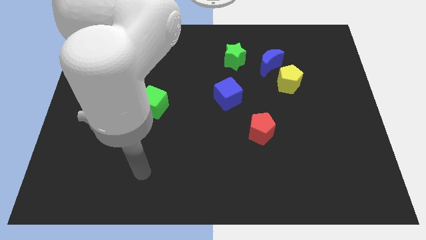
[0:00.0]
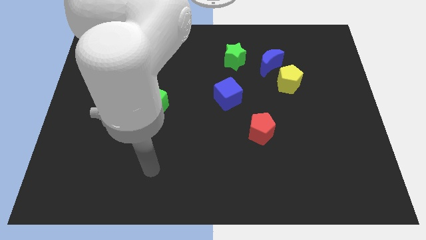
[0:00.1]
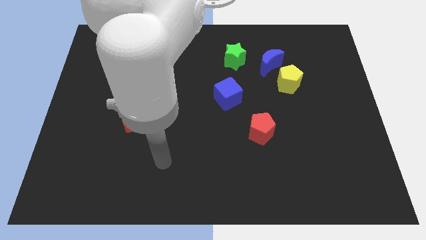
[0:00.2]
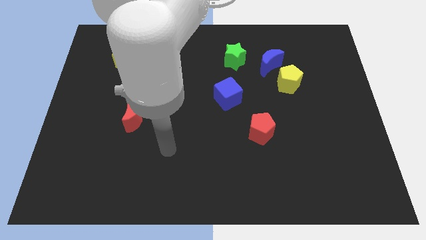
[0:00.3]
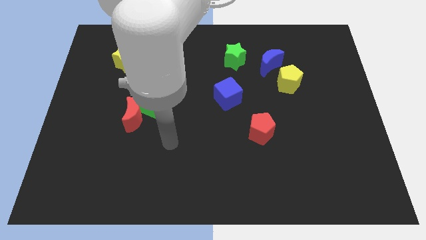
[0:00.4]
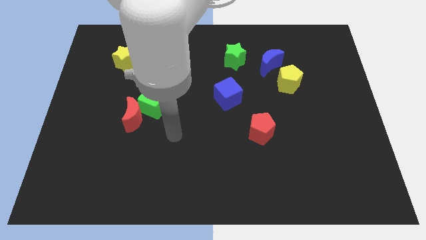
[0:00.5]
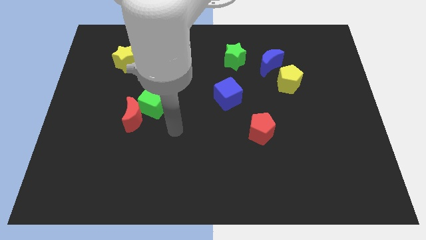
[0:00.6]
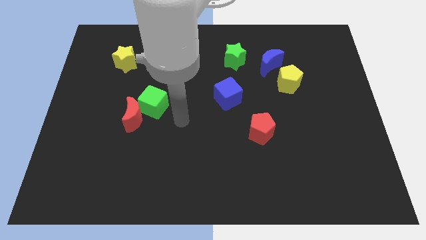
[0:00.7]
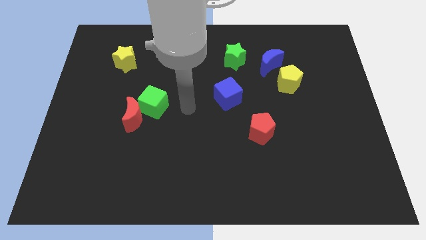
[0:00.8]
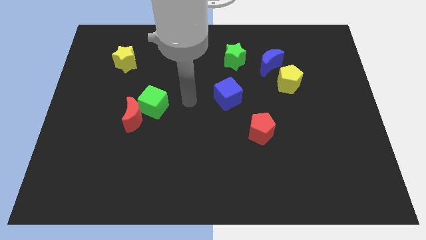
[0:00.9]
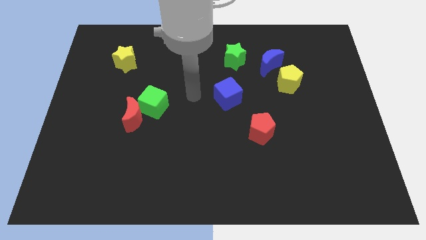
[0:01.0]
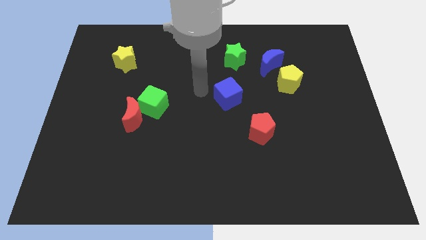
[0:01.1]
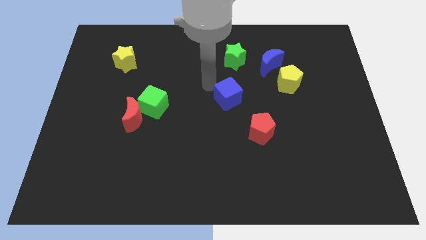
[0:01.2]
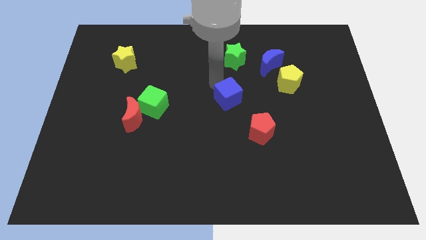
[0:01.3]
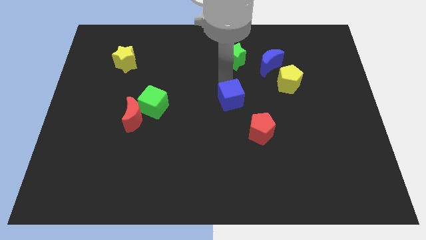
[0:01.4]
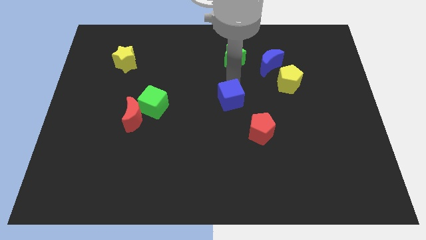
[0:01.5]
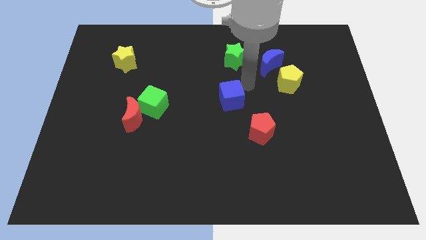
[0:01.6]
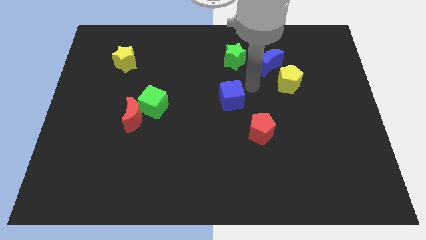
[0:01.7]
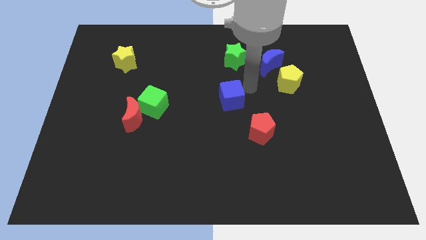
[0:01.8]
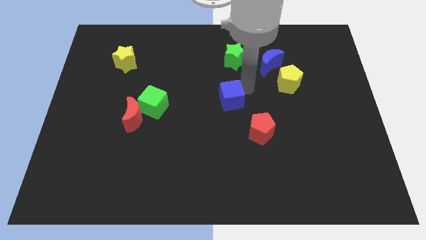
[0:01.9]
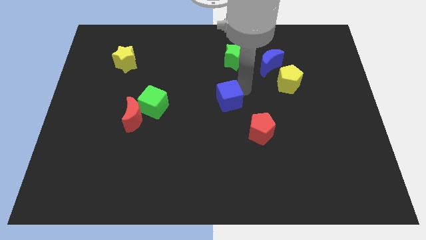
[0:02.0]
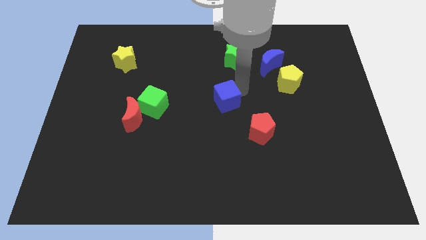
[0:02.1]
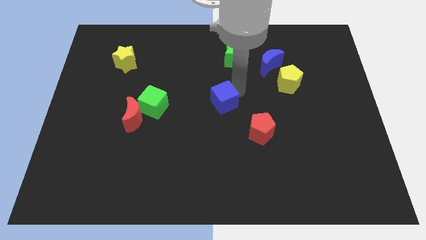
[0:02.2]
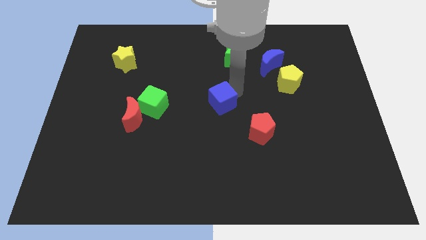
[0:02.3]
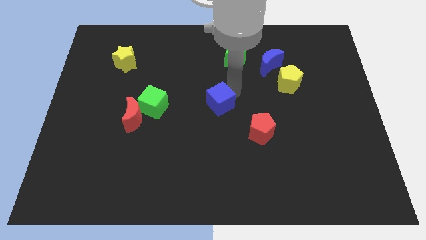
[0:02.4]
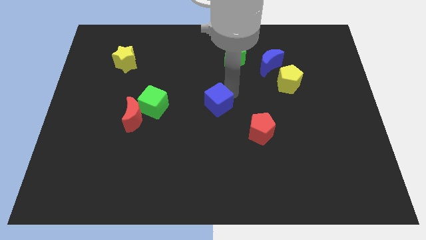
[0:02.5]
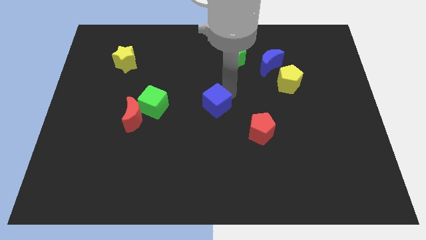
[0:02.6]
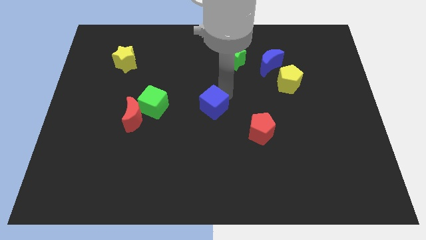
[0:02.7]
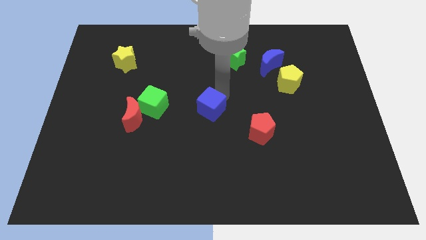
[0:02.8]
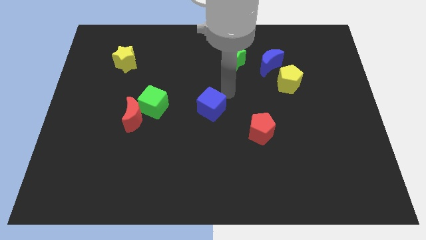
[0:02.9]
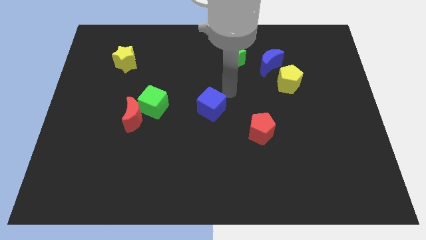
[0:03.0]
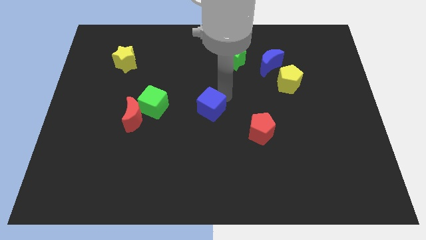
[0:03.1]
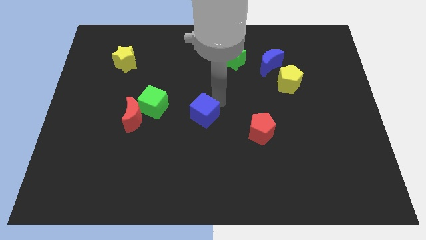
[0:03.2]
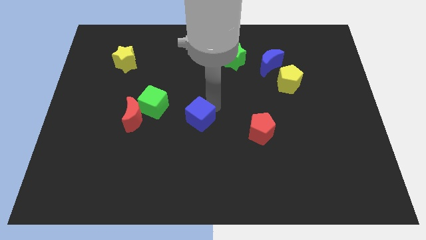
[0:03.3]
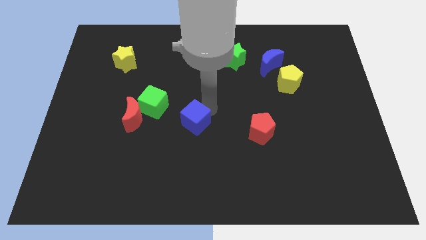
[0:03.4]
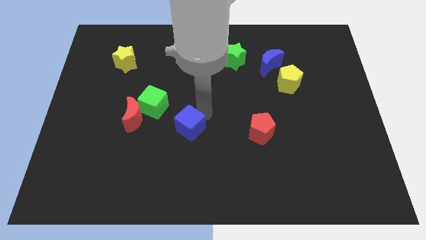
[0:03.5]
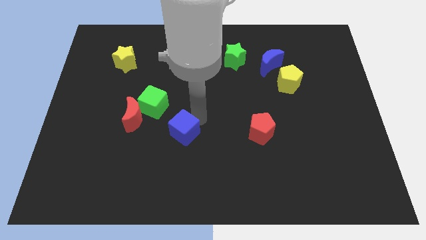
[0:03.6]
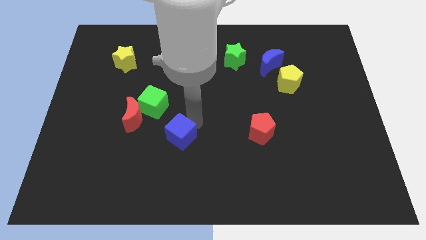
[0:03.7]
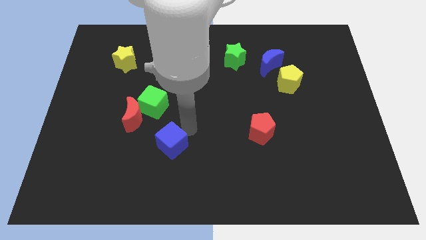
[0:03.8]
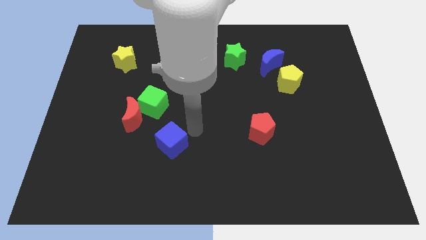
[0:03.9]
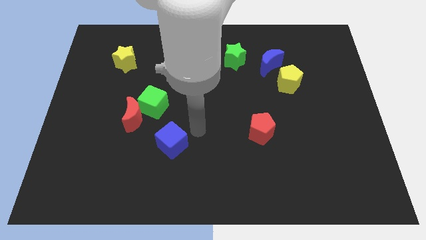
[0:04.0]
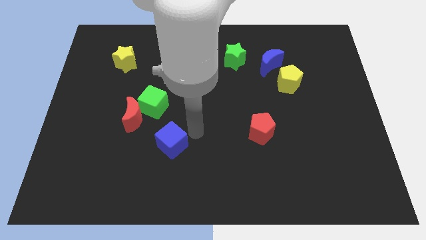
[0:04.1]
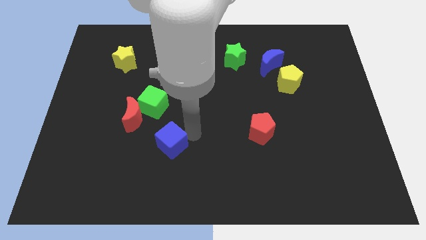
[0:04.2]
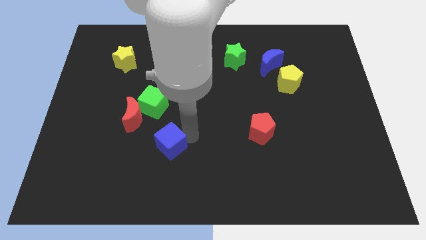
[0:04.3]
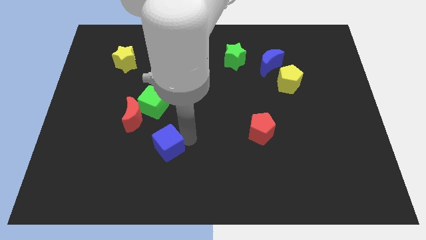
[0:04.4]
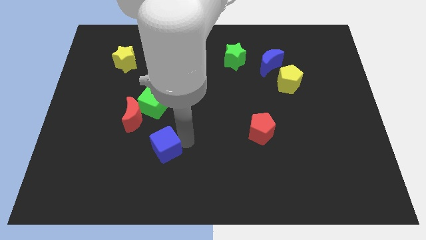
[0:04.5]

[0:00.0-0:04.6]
push the blue cube diagonally downwards and to the left

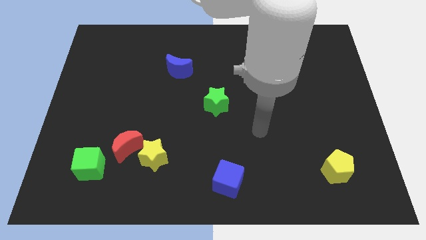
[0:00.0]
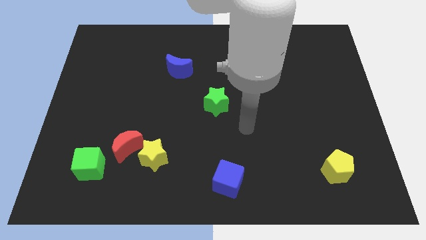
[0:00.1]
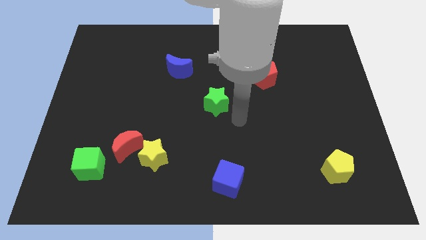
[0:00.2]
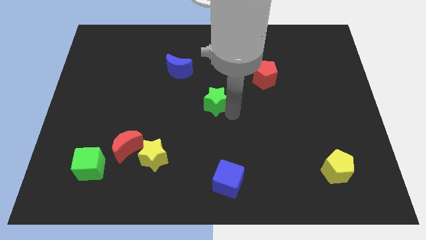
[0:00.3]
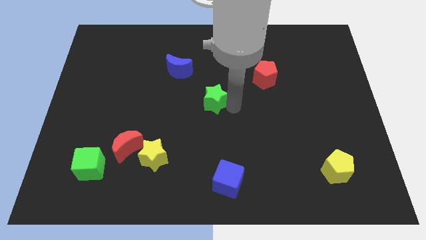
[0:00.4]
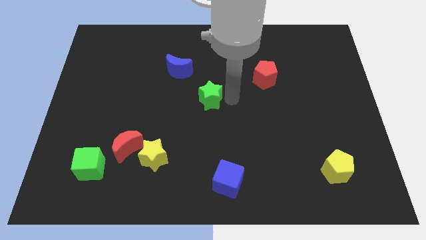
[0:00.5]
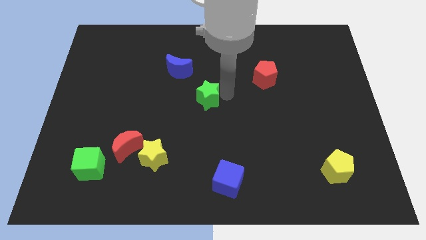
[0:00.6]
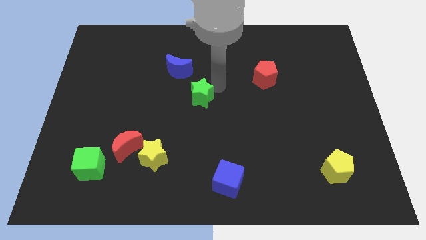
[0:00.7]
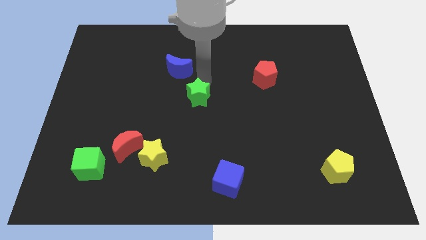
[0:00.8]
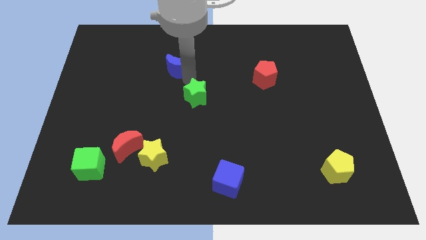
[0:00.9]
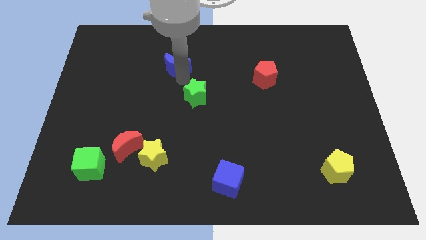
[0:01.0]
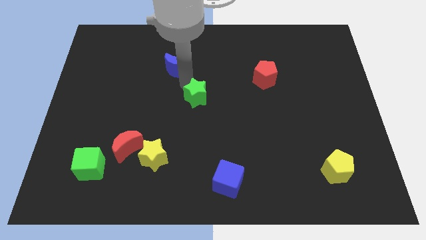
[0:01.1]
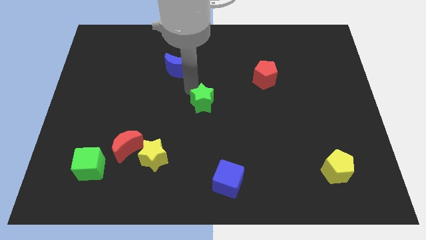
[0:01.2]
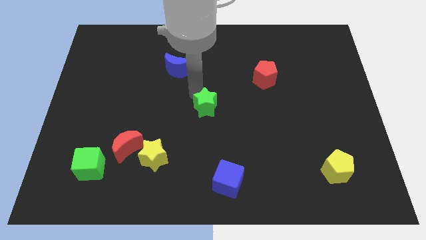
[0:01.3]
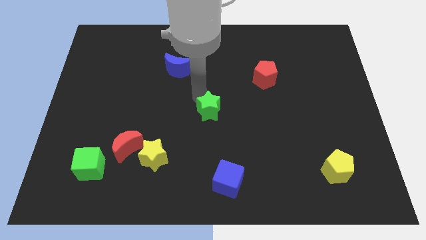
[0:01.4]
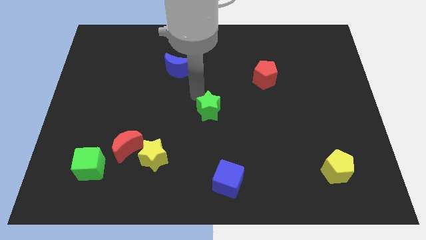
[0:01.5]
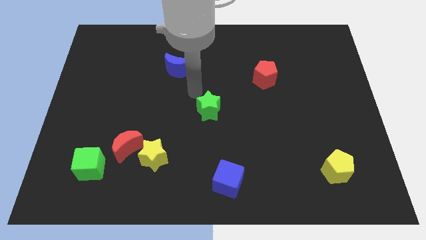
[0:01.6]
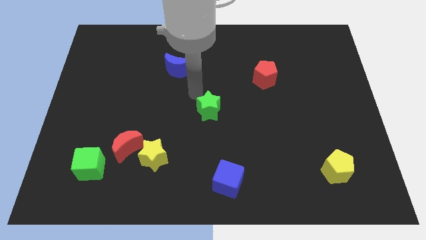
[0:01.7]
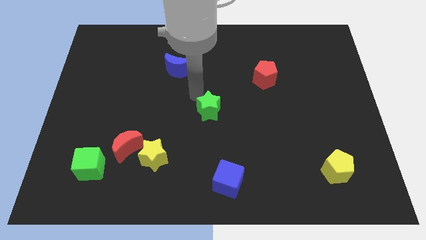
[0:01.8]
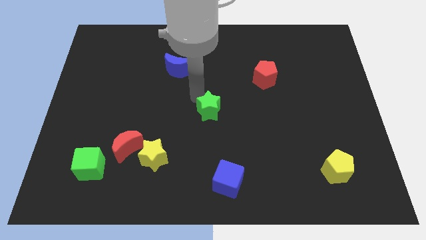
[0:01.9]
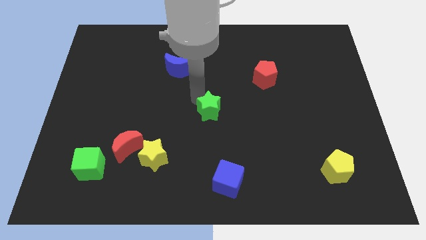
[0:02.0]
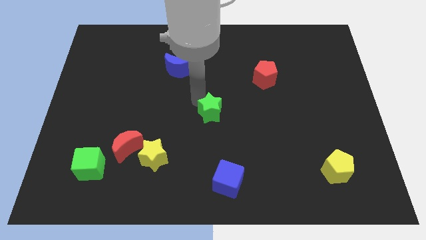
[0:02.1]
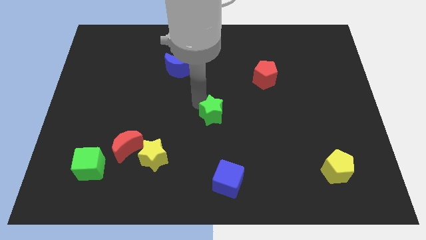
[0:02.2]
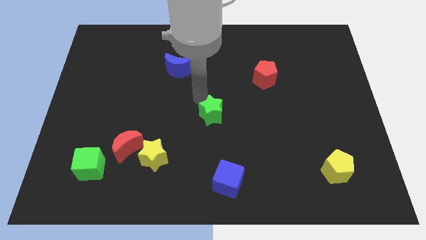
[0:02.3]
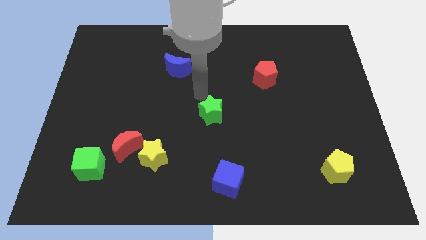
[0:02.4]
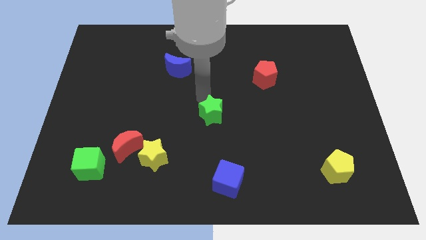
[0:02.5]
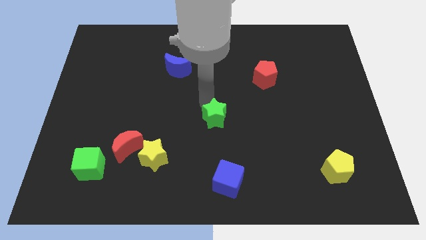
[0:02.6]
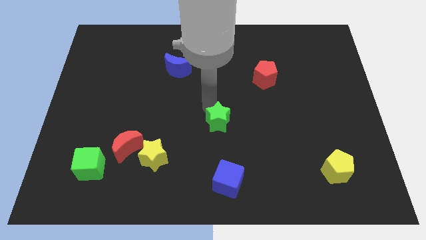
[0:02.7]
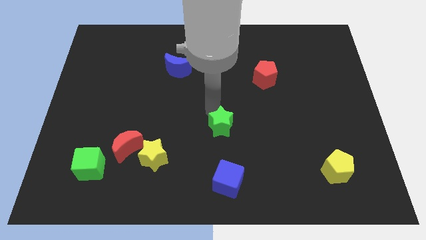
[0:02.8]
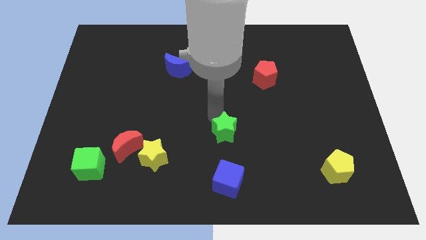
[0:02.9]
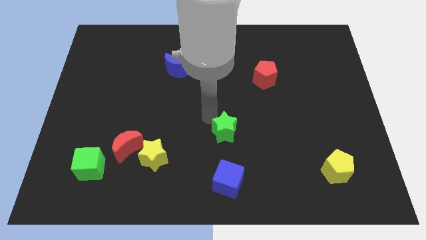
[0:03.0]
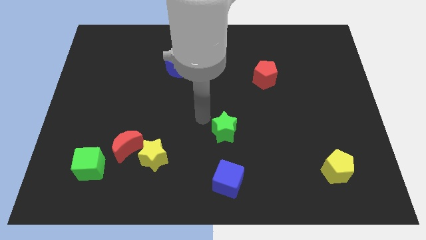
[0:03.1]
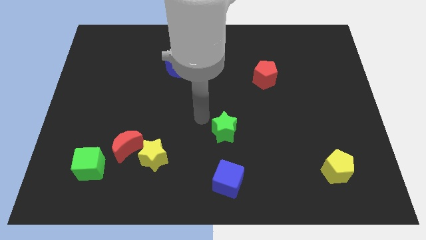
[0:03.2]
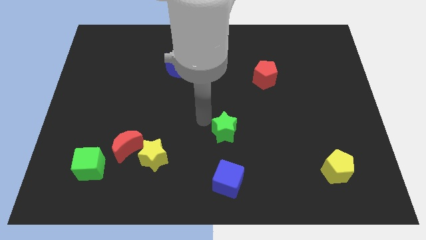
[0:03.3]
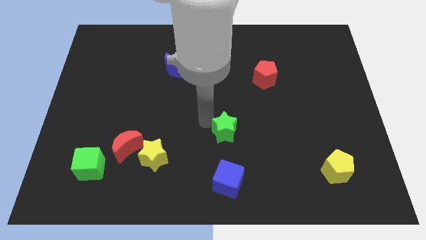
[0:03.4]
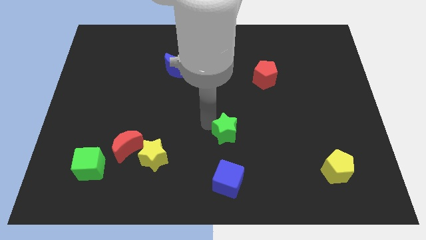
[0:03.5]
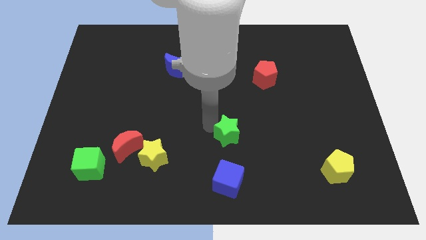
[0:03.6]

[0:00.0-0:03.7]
move the green star somewhat downwards and then right
